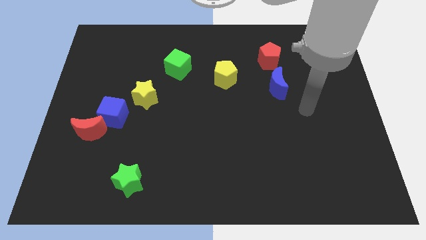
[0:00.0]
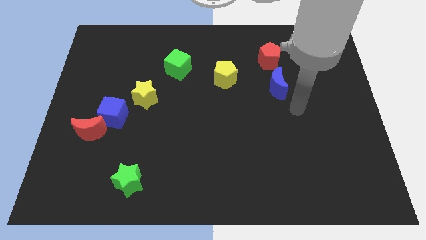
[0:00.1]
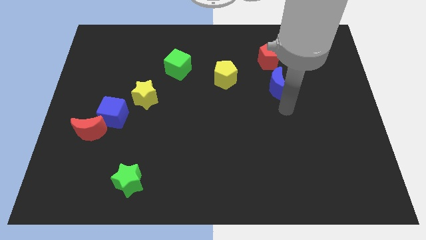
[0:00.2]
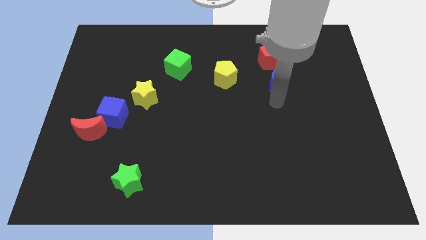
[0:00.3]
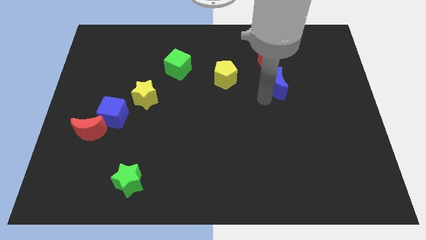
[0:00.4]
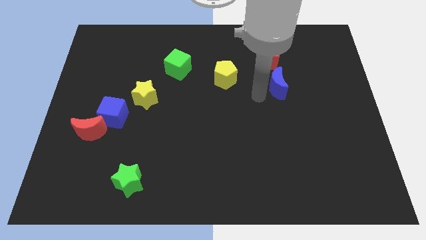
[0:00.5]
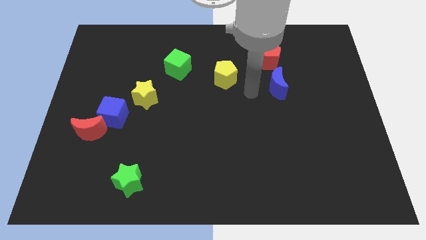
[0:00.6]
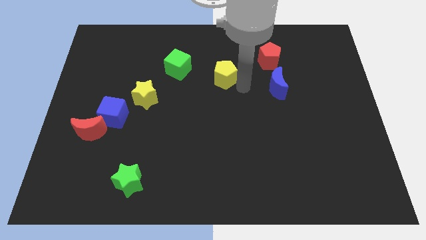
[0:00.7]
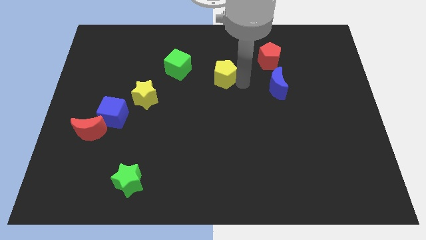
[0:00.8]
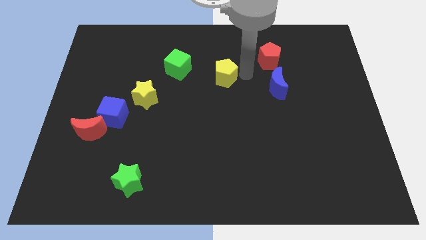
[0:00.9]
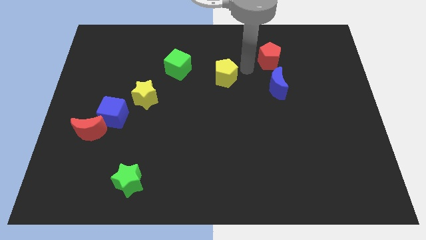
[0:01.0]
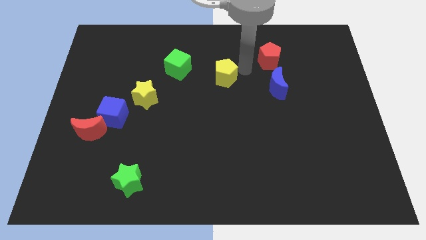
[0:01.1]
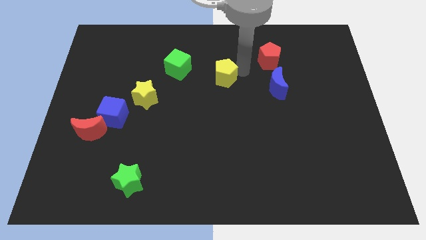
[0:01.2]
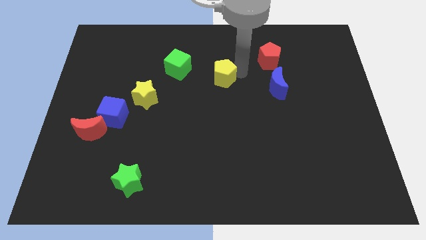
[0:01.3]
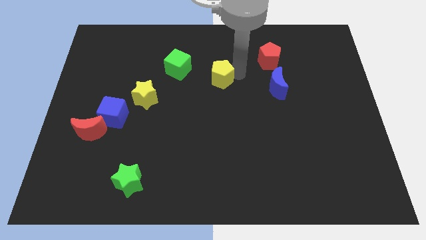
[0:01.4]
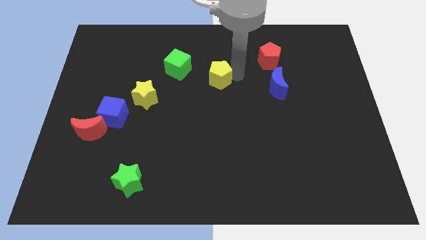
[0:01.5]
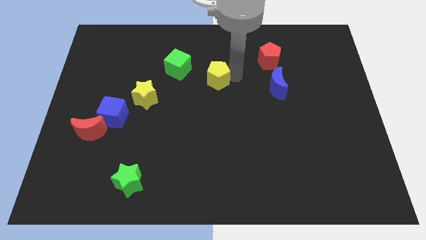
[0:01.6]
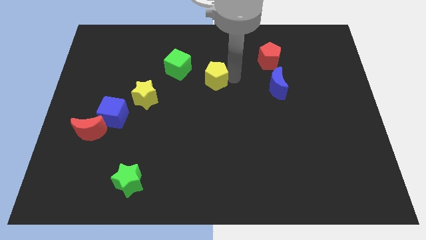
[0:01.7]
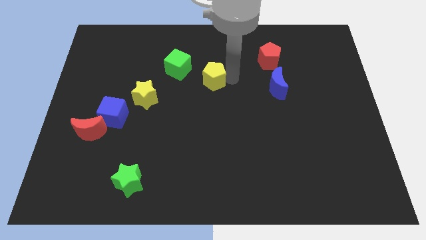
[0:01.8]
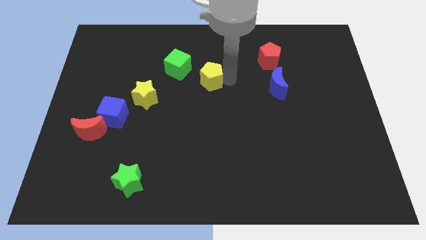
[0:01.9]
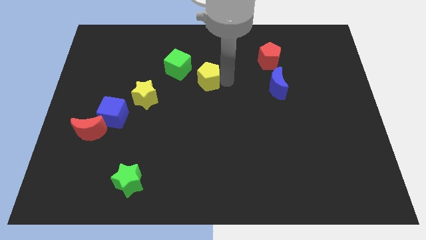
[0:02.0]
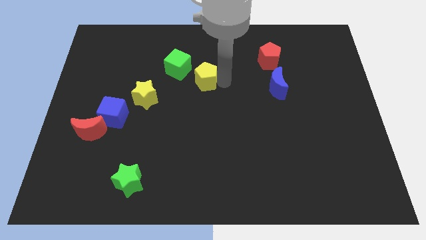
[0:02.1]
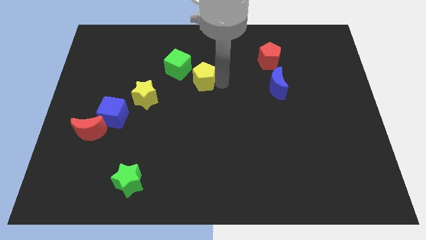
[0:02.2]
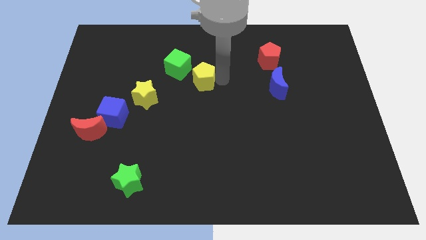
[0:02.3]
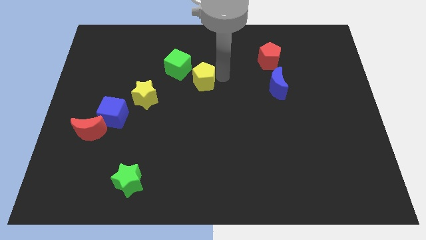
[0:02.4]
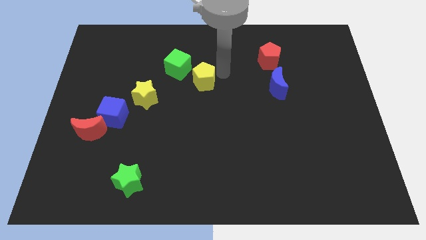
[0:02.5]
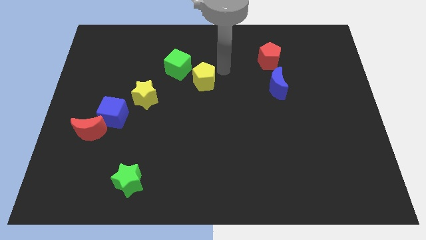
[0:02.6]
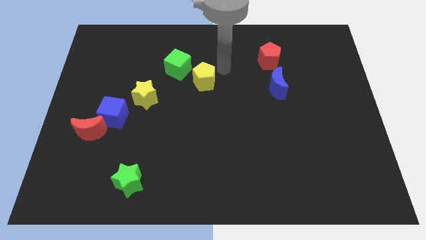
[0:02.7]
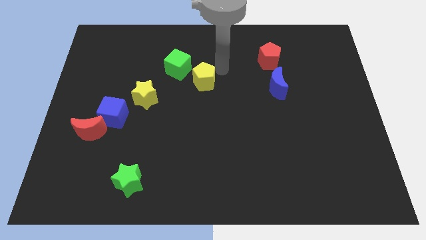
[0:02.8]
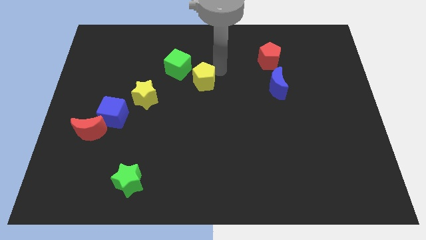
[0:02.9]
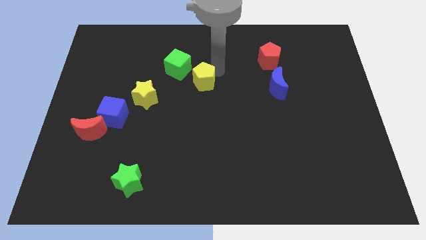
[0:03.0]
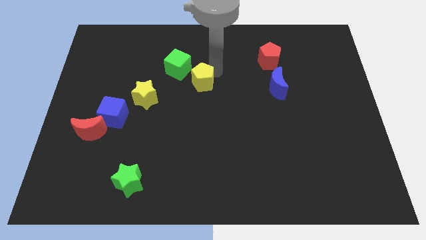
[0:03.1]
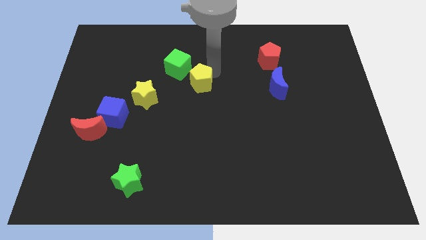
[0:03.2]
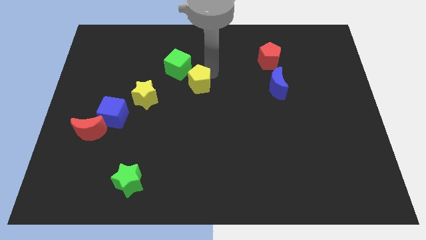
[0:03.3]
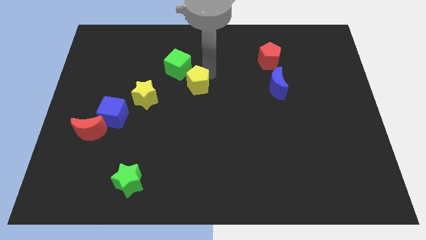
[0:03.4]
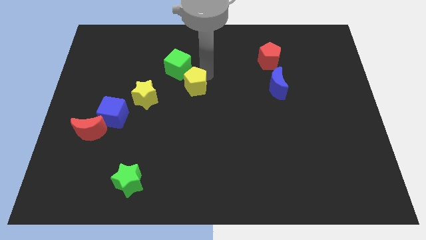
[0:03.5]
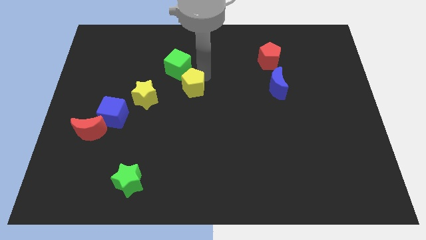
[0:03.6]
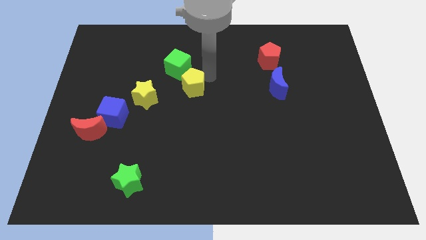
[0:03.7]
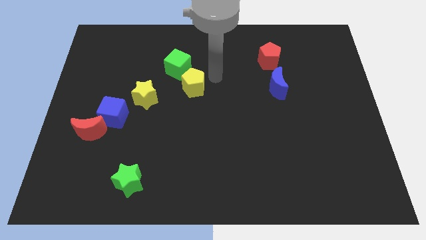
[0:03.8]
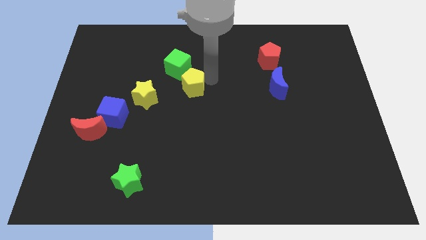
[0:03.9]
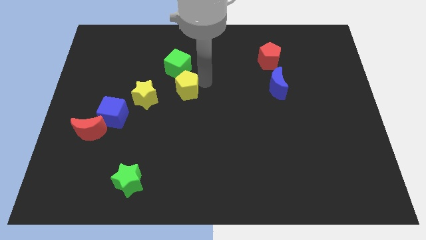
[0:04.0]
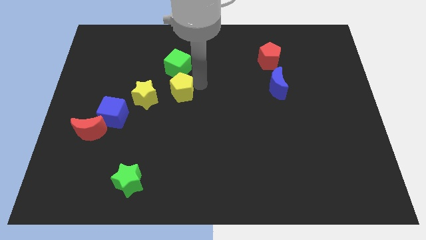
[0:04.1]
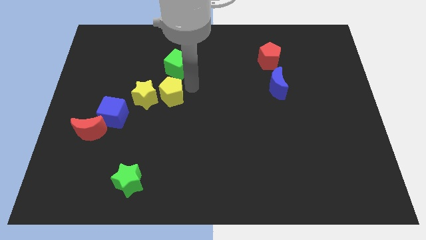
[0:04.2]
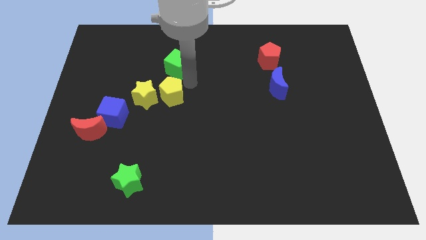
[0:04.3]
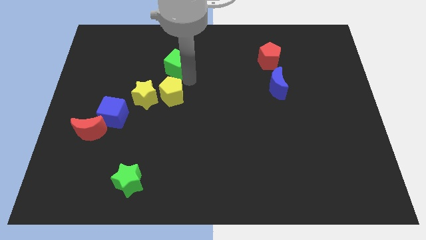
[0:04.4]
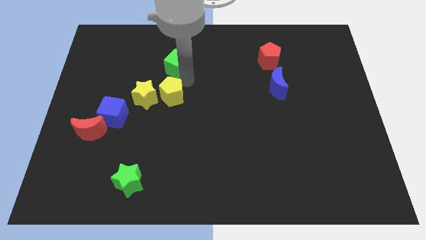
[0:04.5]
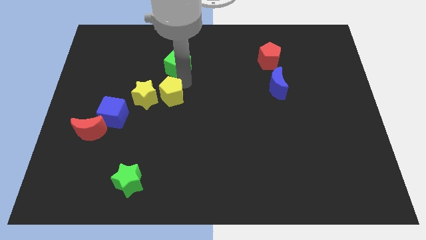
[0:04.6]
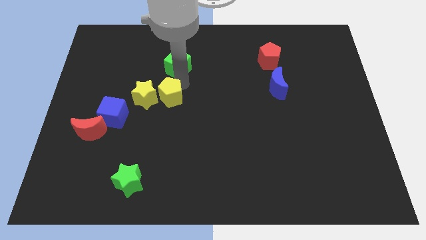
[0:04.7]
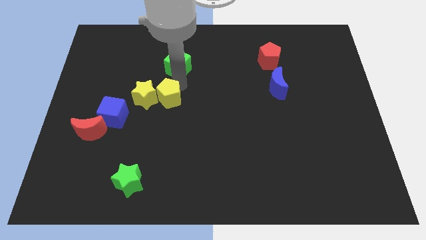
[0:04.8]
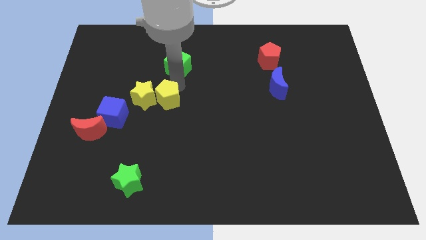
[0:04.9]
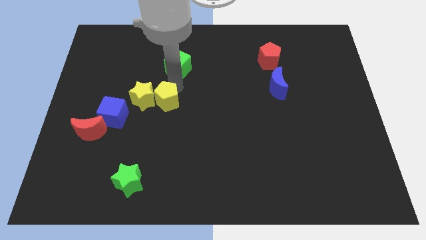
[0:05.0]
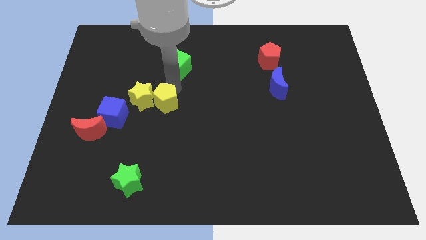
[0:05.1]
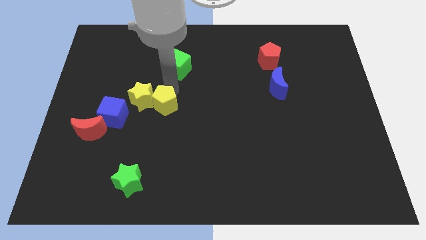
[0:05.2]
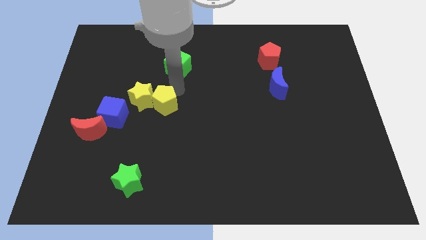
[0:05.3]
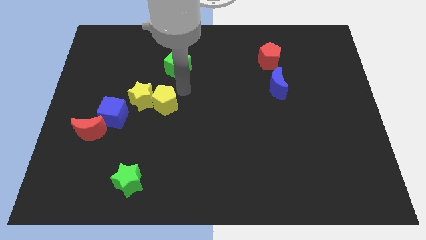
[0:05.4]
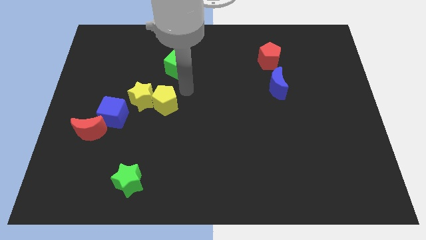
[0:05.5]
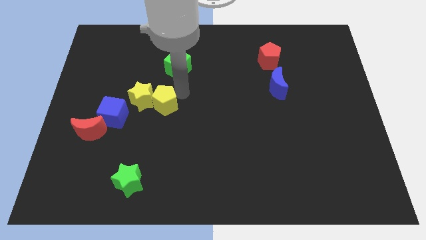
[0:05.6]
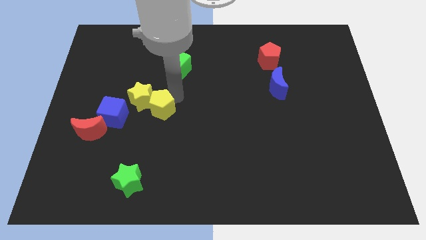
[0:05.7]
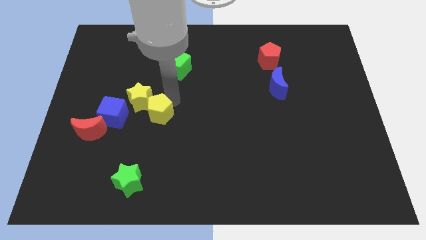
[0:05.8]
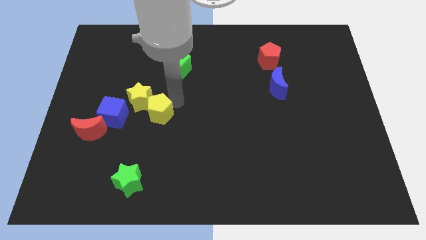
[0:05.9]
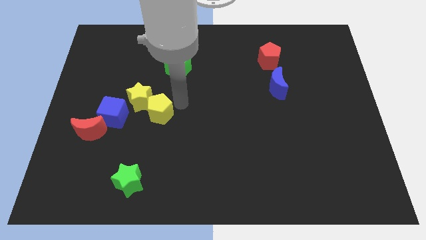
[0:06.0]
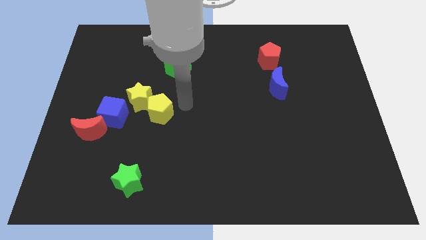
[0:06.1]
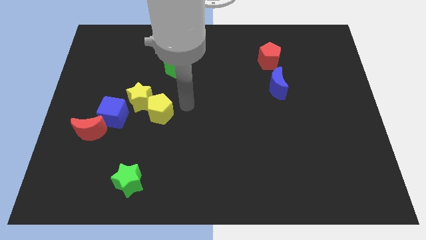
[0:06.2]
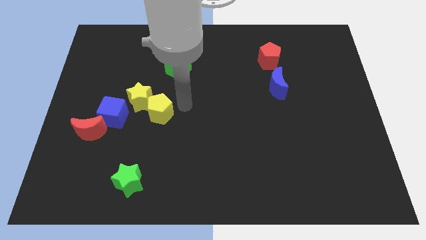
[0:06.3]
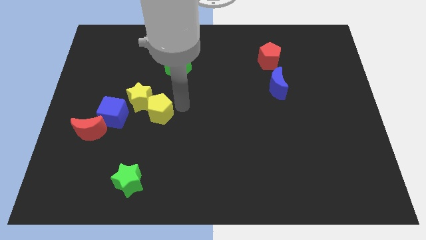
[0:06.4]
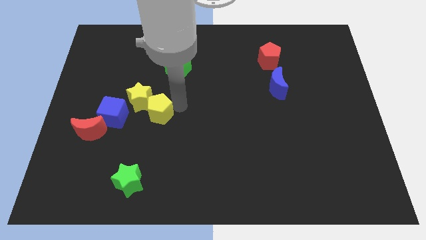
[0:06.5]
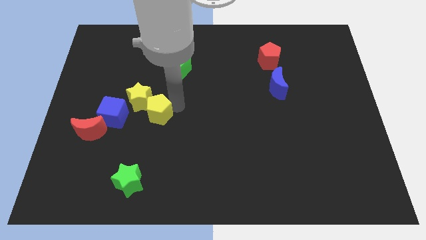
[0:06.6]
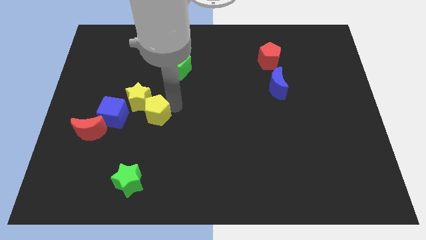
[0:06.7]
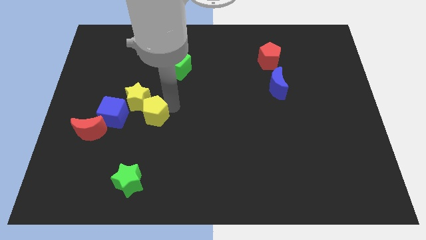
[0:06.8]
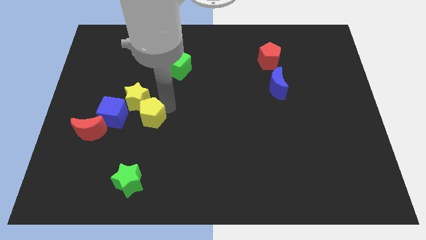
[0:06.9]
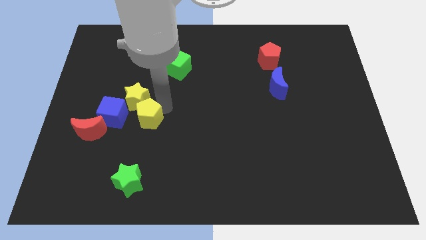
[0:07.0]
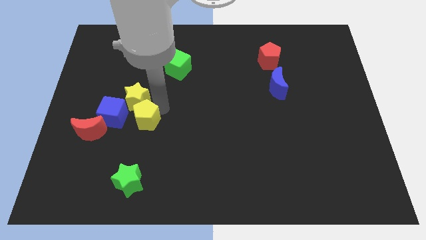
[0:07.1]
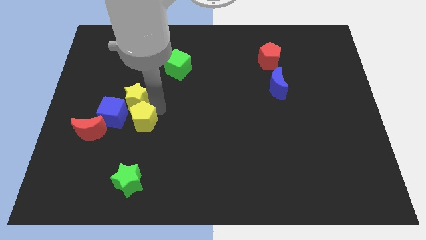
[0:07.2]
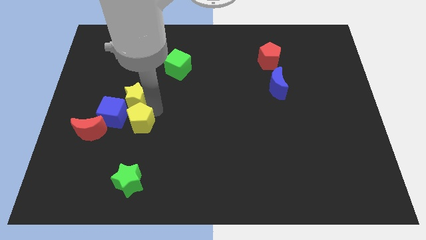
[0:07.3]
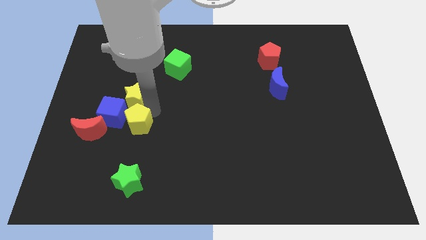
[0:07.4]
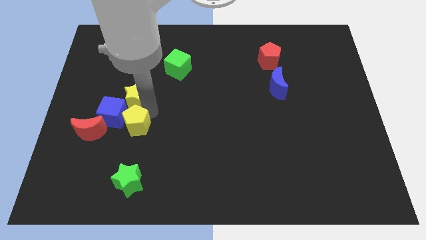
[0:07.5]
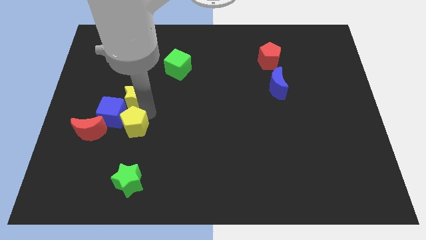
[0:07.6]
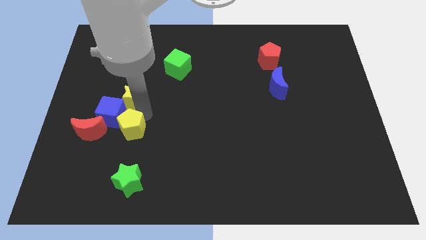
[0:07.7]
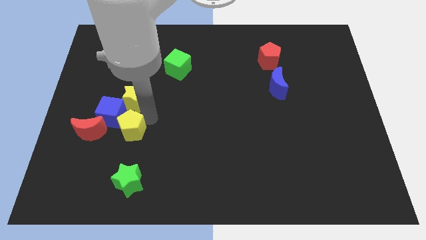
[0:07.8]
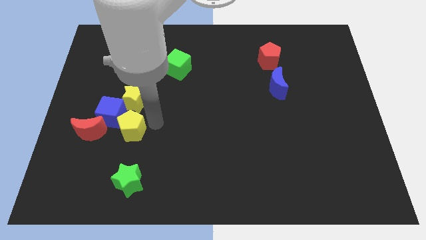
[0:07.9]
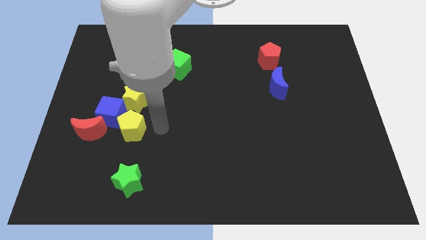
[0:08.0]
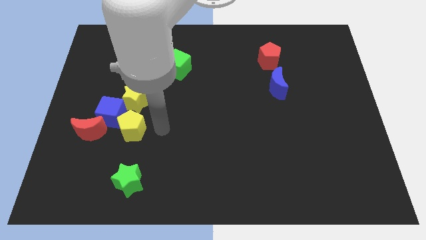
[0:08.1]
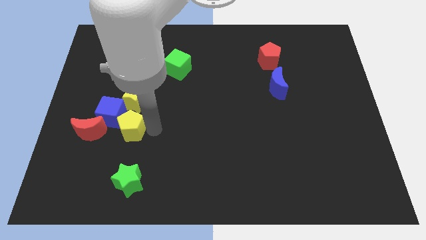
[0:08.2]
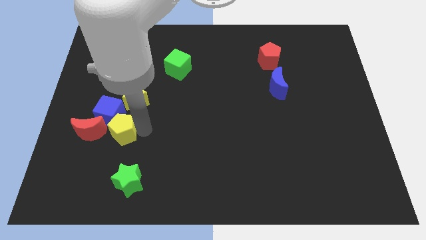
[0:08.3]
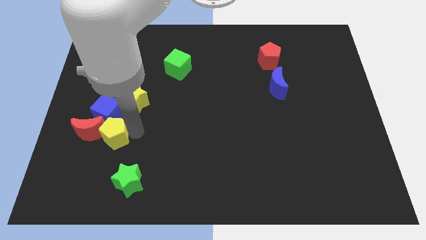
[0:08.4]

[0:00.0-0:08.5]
move the yellow pentagon to the red moon
